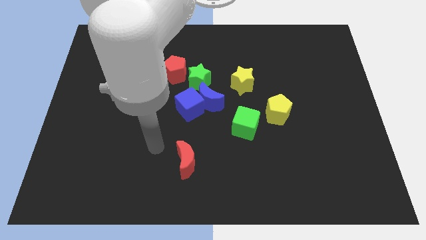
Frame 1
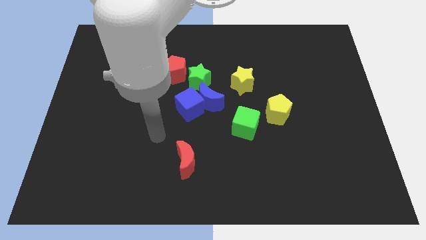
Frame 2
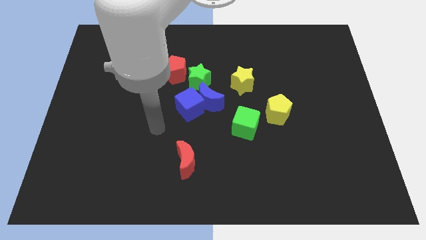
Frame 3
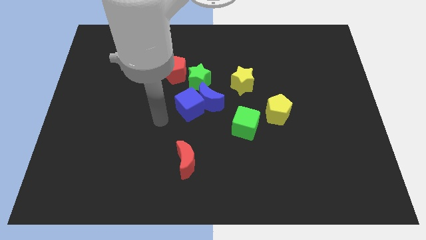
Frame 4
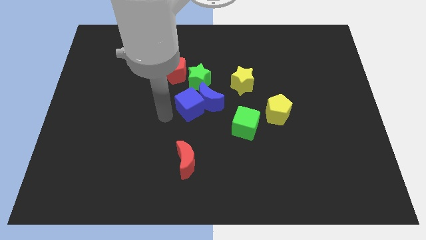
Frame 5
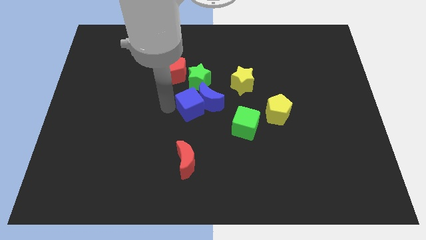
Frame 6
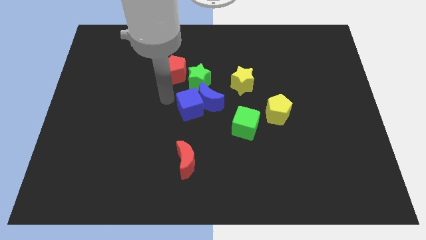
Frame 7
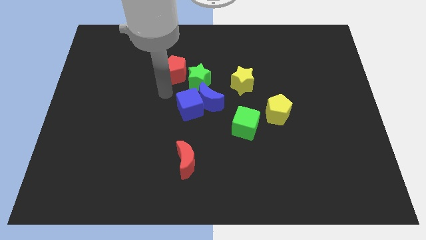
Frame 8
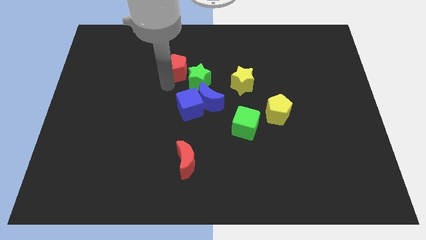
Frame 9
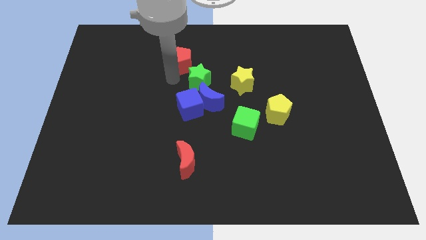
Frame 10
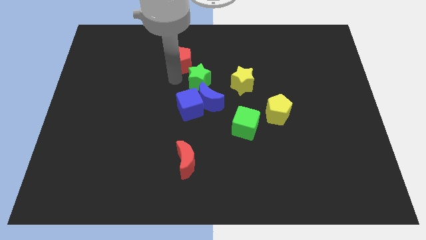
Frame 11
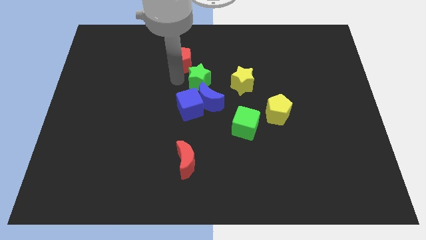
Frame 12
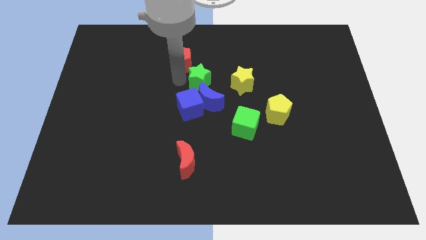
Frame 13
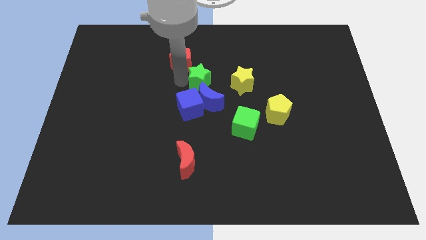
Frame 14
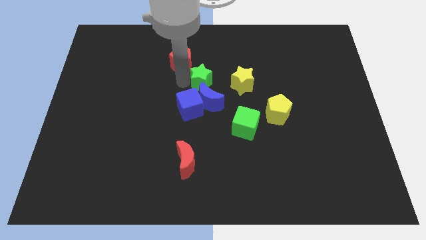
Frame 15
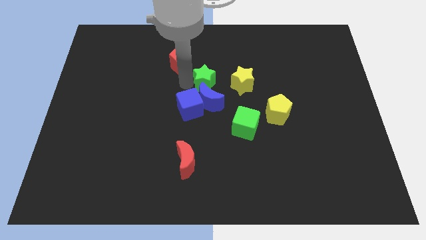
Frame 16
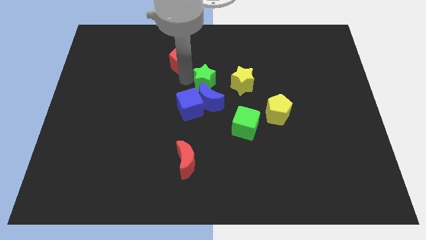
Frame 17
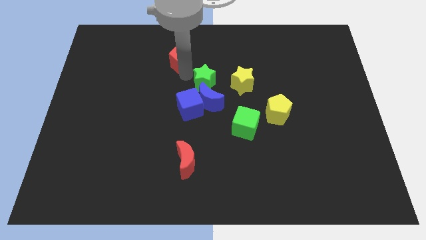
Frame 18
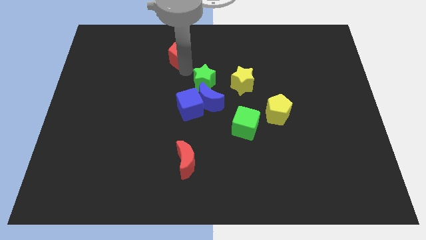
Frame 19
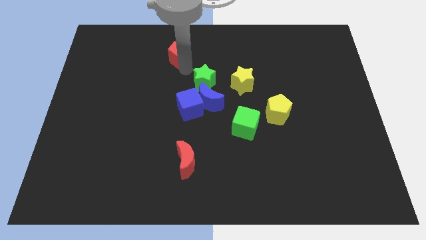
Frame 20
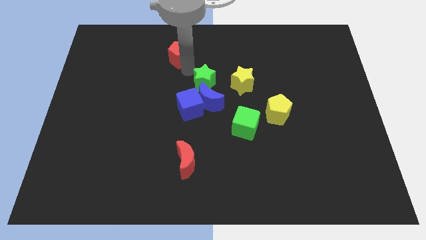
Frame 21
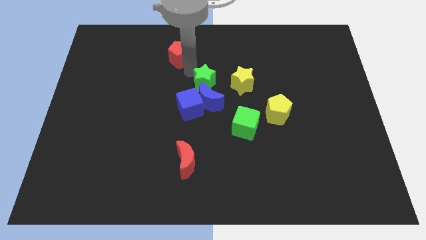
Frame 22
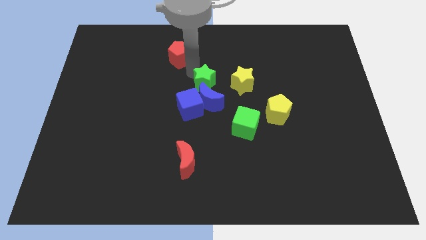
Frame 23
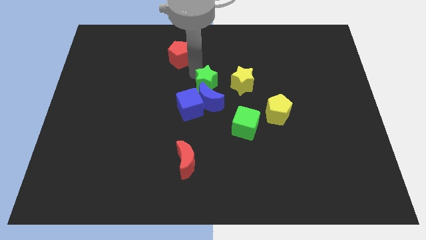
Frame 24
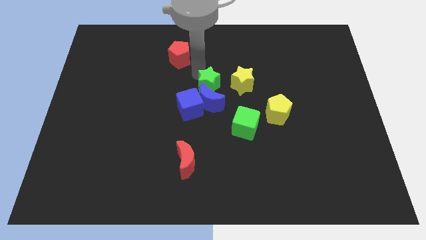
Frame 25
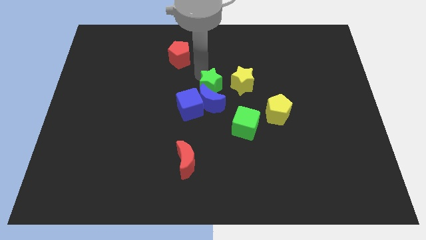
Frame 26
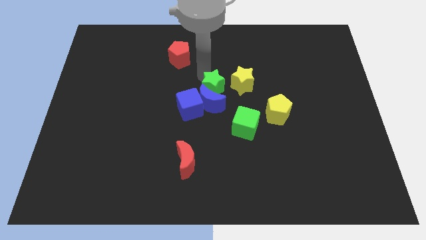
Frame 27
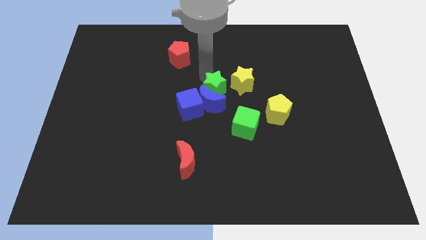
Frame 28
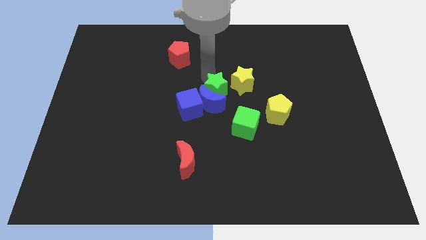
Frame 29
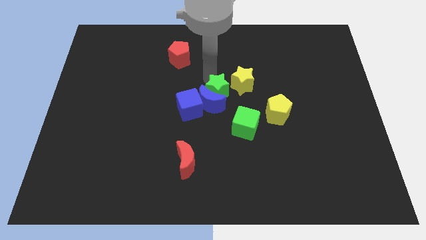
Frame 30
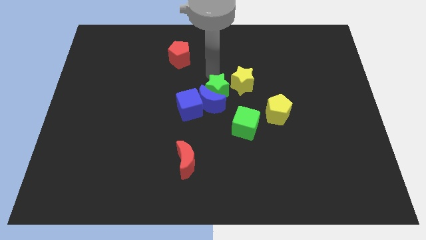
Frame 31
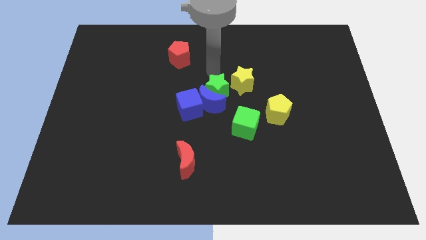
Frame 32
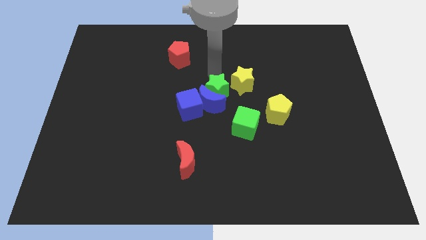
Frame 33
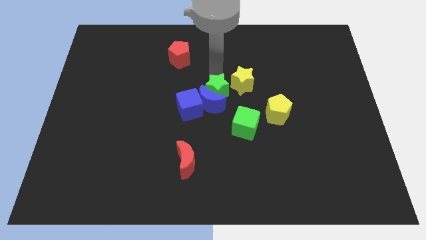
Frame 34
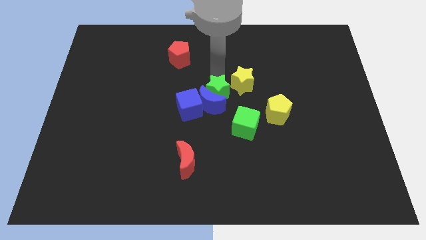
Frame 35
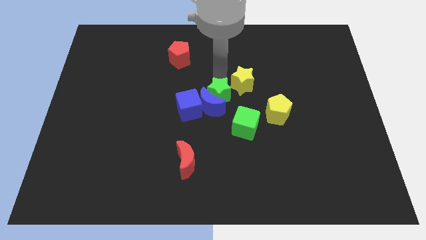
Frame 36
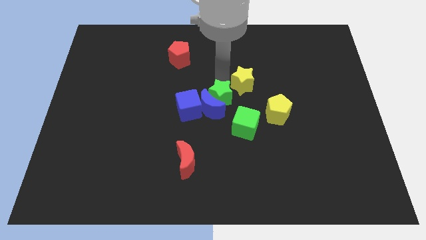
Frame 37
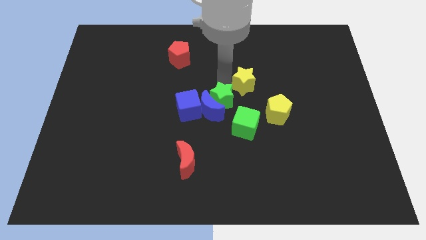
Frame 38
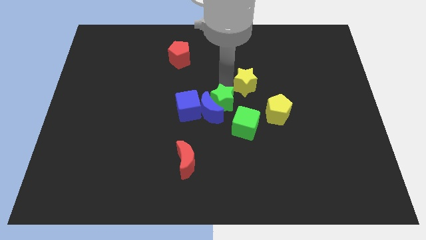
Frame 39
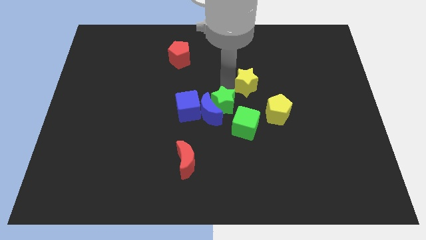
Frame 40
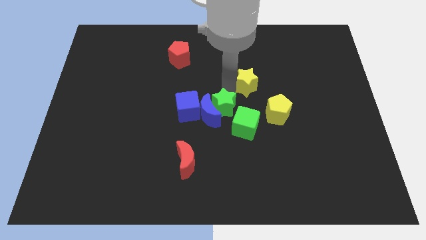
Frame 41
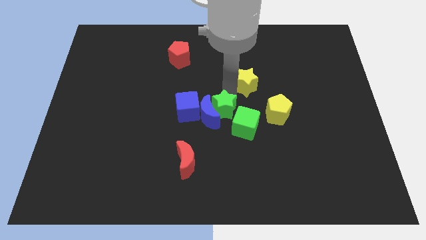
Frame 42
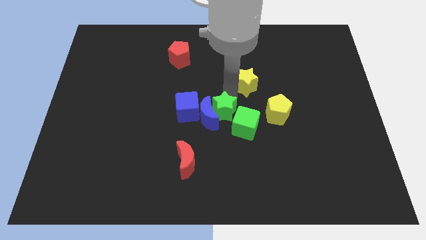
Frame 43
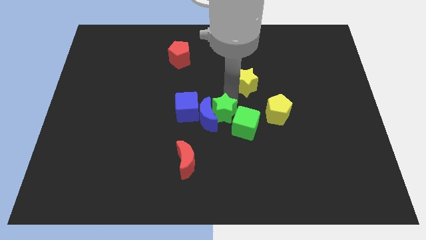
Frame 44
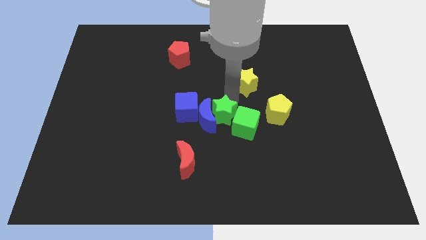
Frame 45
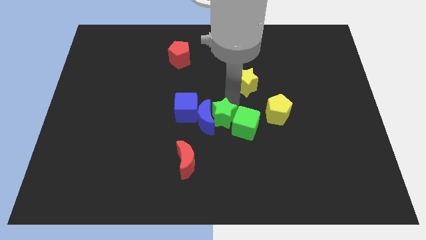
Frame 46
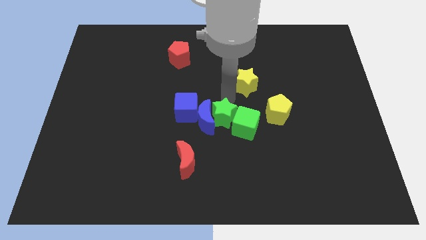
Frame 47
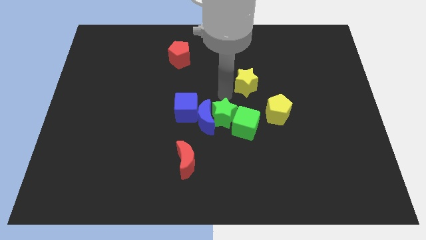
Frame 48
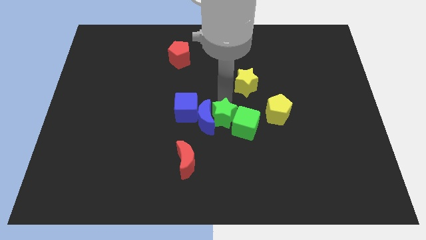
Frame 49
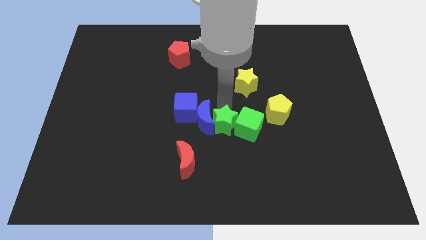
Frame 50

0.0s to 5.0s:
move the green star to the bottom left of the green cube

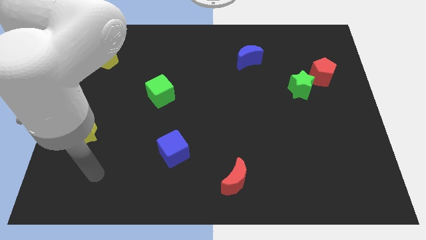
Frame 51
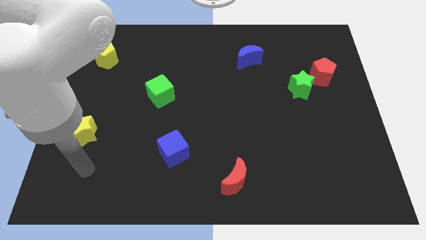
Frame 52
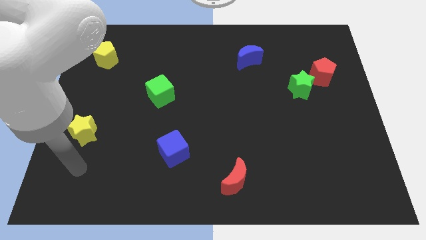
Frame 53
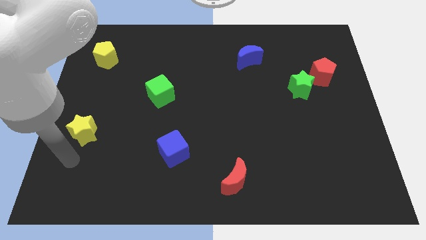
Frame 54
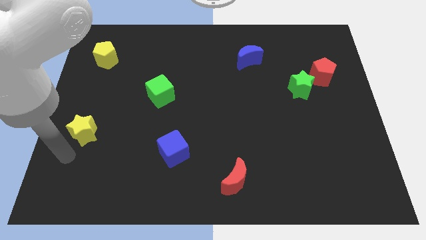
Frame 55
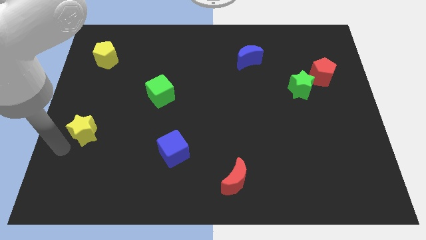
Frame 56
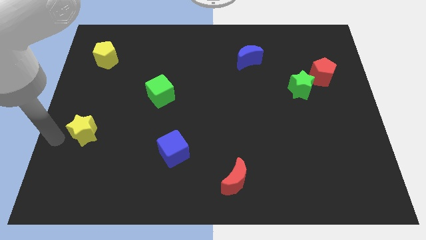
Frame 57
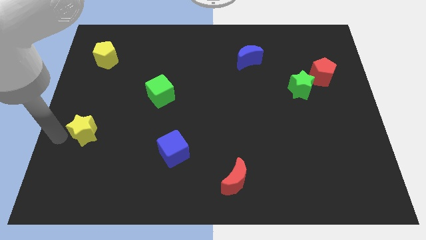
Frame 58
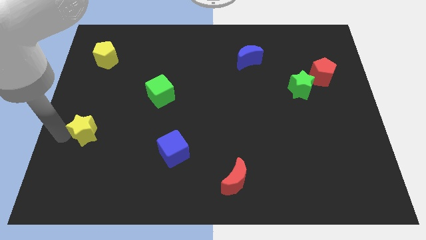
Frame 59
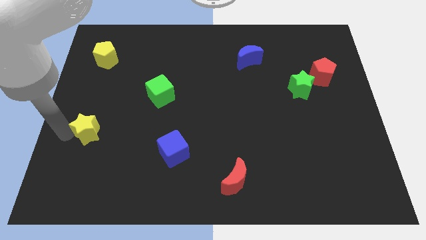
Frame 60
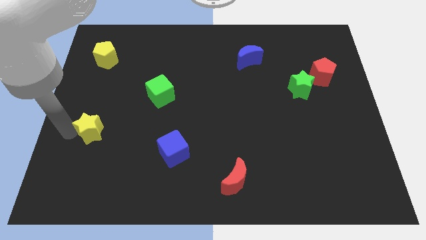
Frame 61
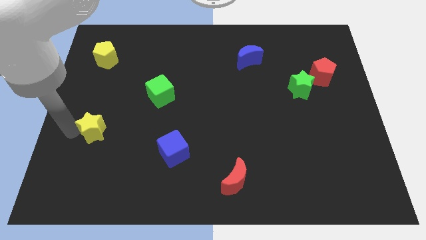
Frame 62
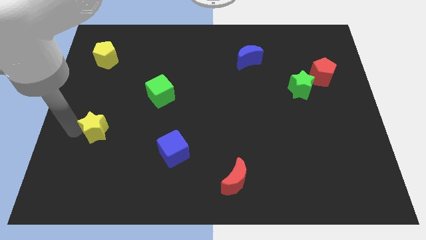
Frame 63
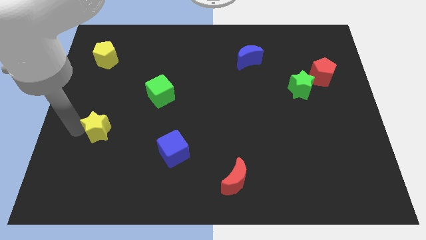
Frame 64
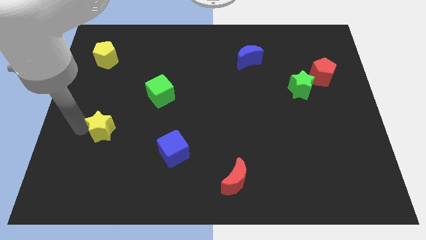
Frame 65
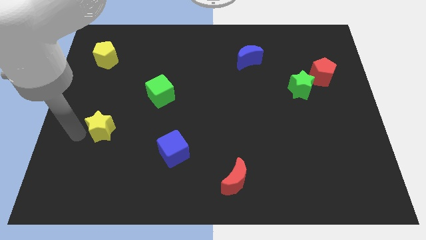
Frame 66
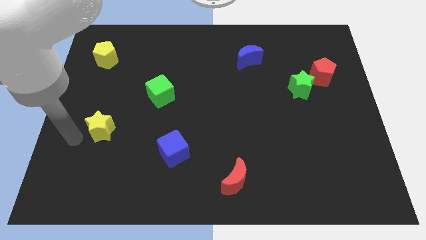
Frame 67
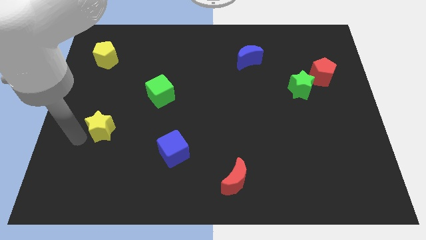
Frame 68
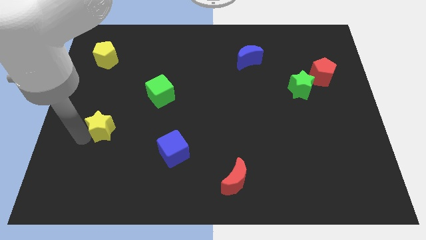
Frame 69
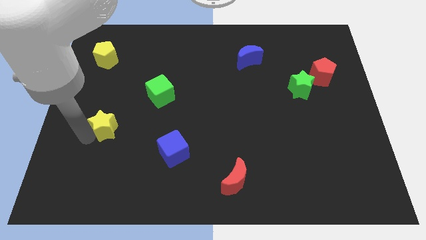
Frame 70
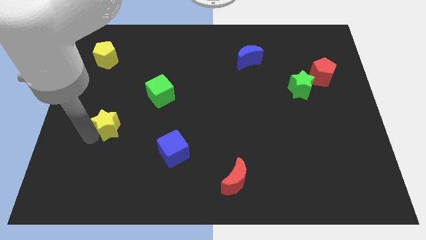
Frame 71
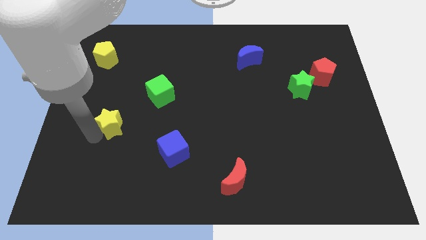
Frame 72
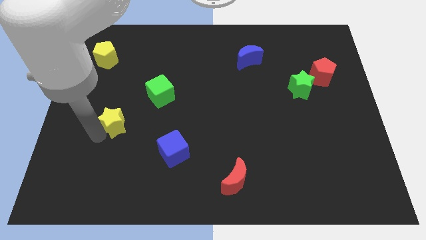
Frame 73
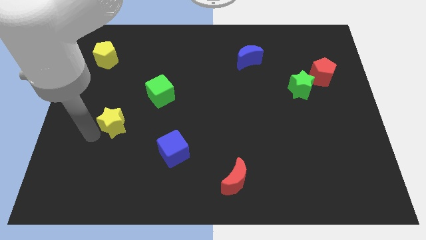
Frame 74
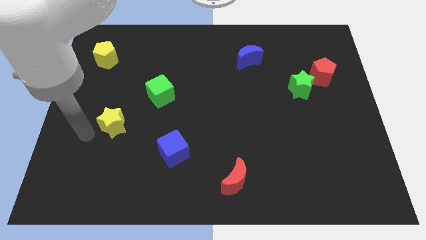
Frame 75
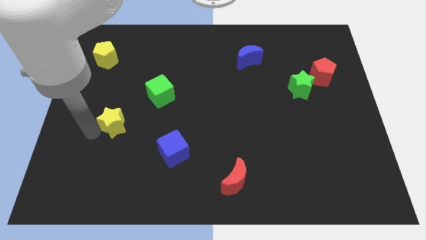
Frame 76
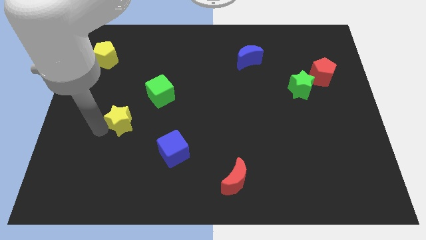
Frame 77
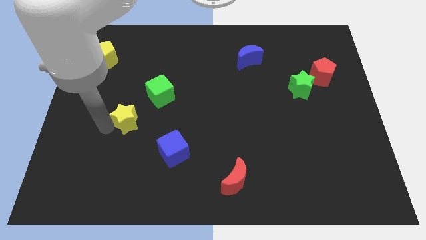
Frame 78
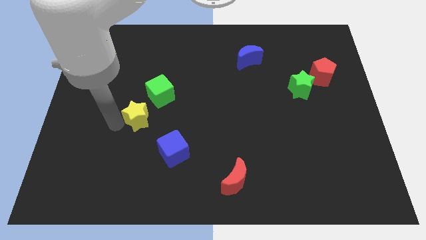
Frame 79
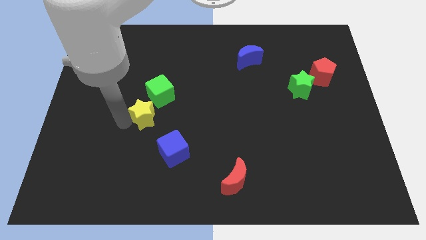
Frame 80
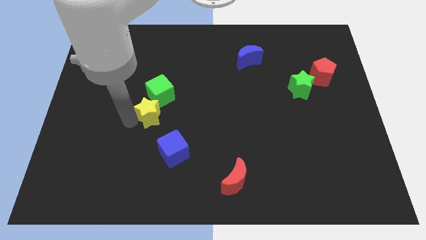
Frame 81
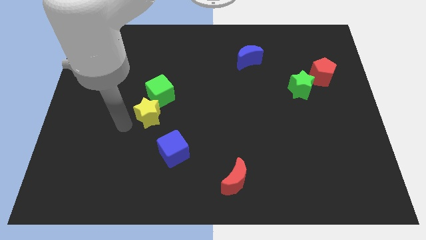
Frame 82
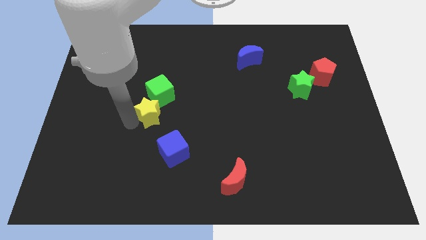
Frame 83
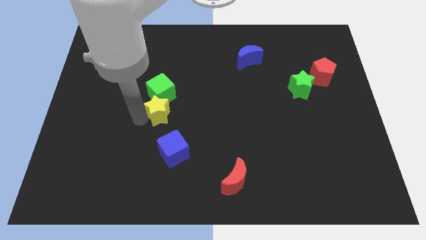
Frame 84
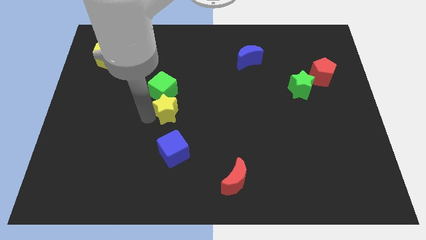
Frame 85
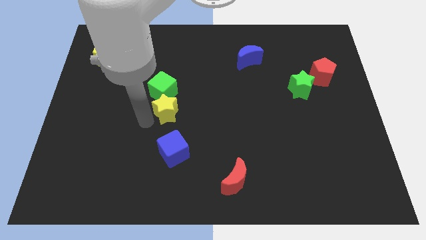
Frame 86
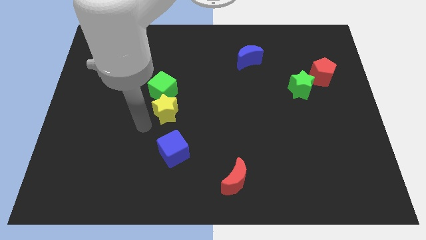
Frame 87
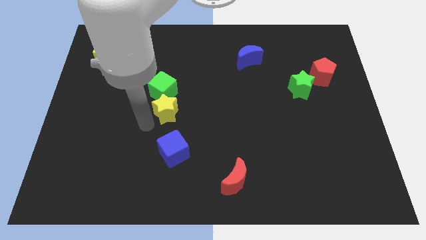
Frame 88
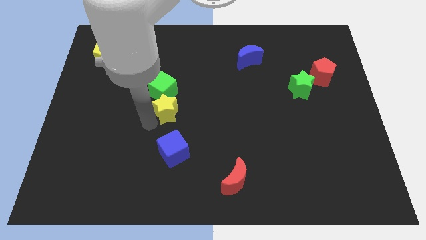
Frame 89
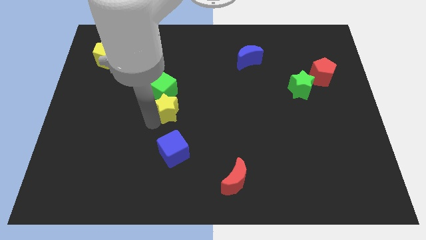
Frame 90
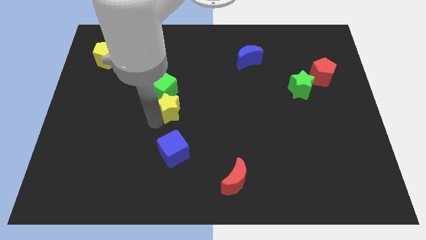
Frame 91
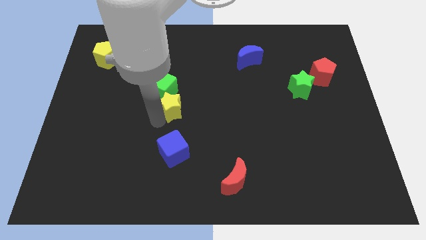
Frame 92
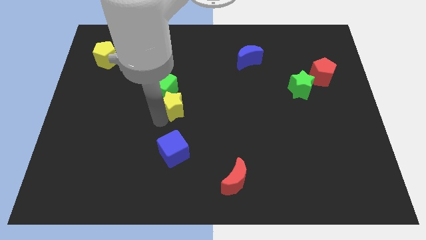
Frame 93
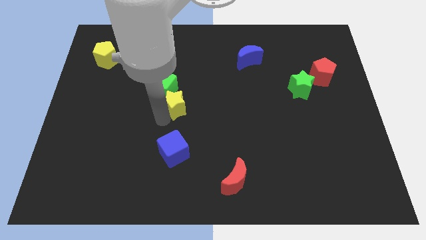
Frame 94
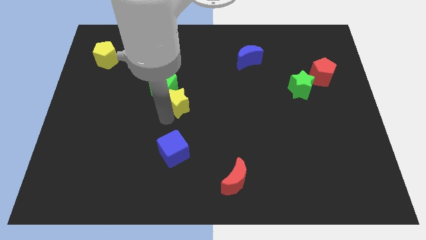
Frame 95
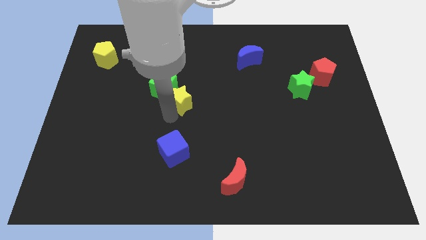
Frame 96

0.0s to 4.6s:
slide the yellow star right of the green cube
